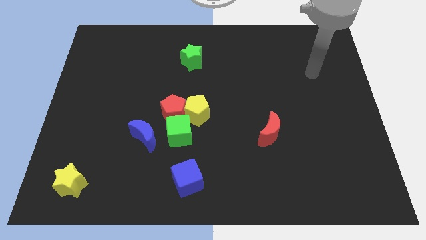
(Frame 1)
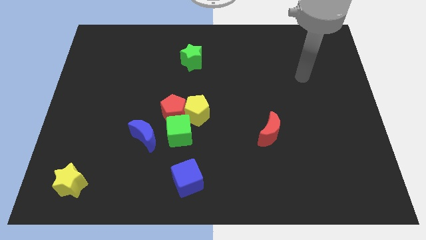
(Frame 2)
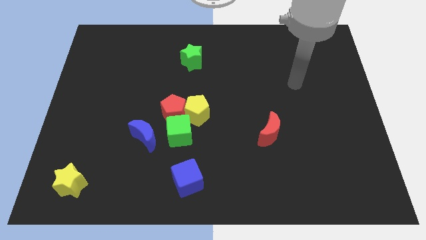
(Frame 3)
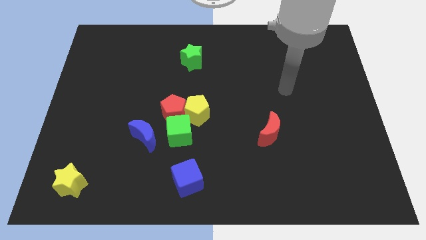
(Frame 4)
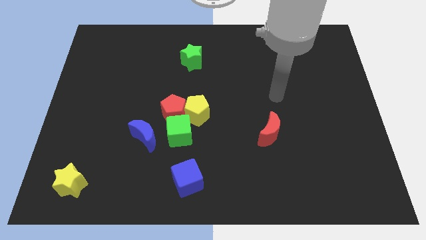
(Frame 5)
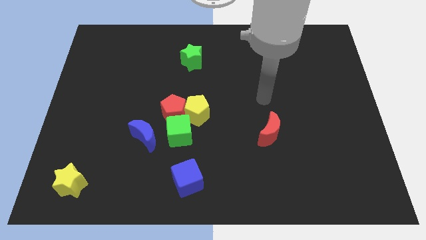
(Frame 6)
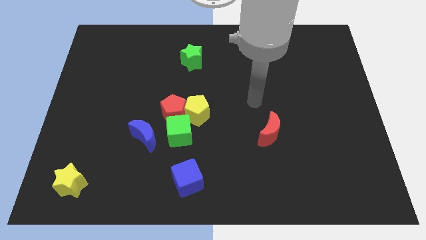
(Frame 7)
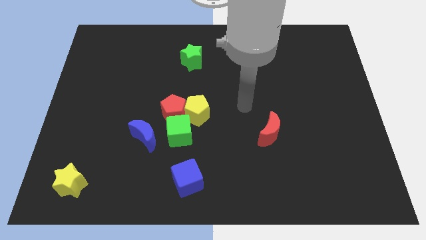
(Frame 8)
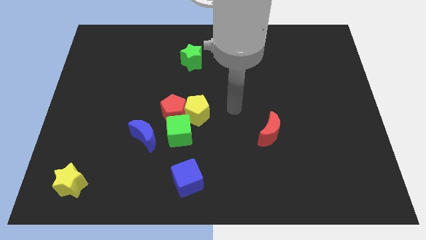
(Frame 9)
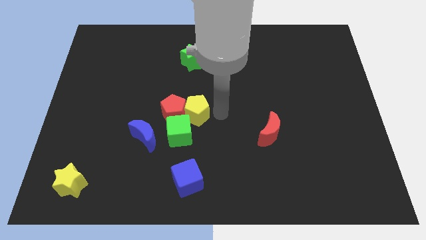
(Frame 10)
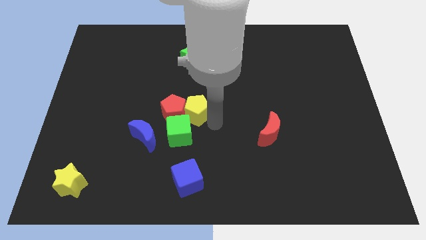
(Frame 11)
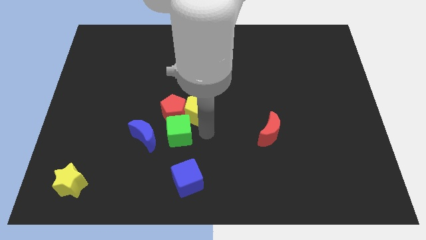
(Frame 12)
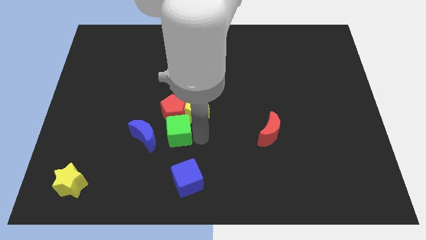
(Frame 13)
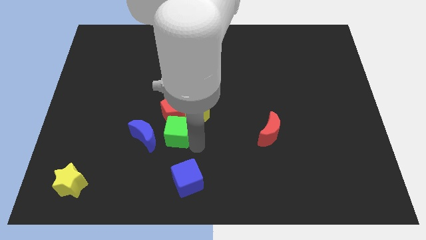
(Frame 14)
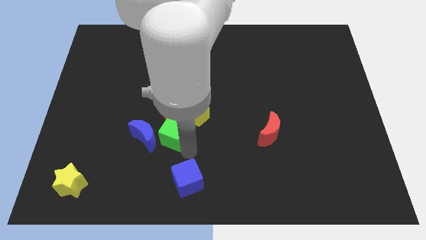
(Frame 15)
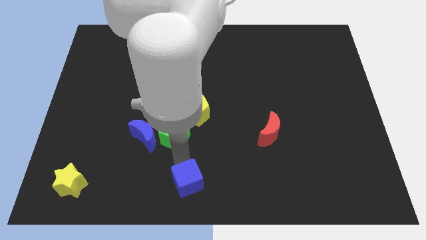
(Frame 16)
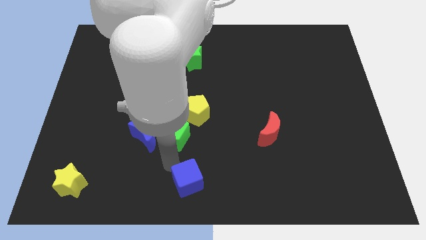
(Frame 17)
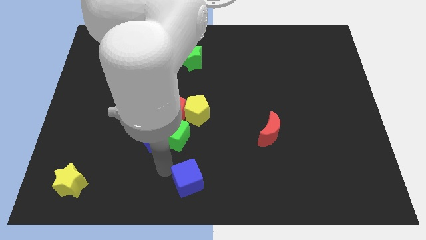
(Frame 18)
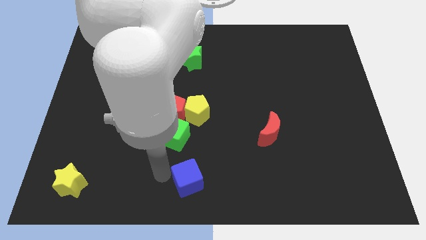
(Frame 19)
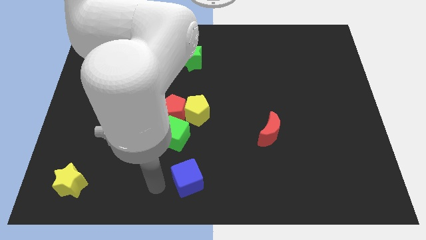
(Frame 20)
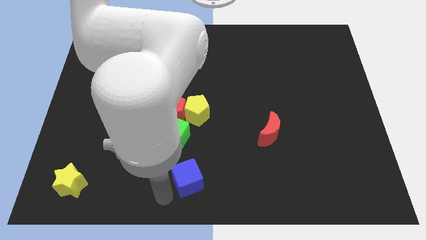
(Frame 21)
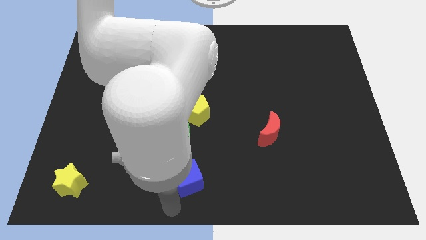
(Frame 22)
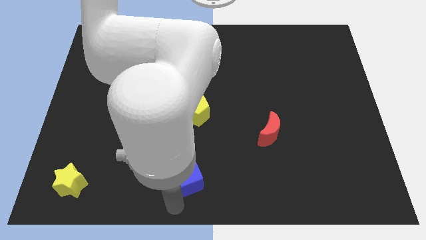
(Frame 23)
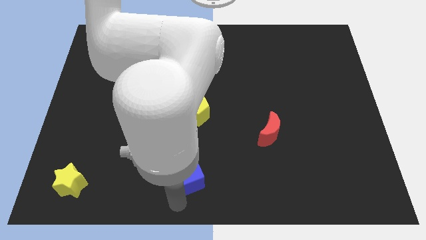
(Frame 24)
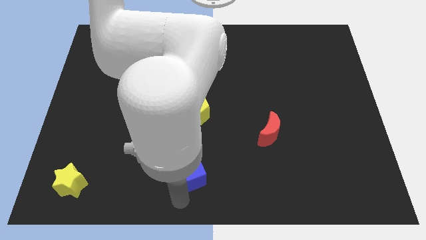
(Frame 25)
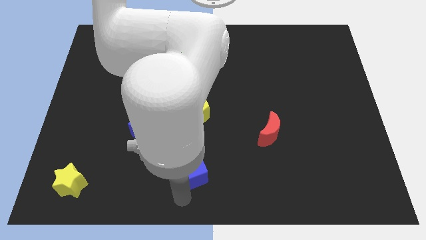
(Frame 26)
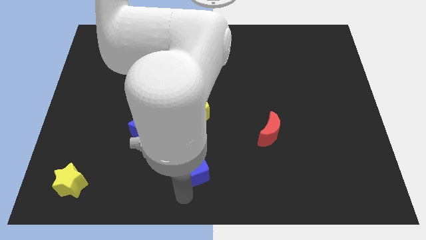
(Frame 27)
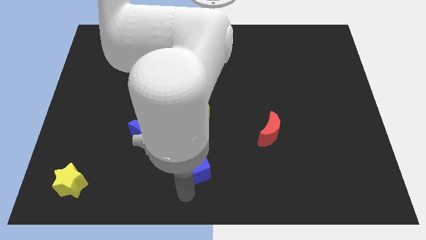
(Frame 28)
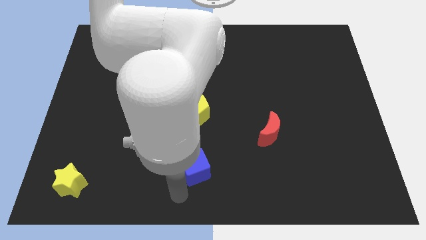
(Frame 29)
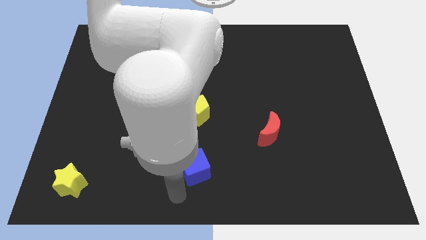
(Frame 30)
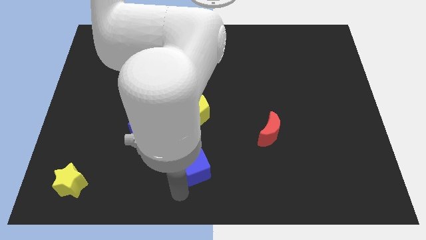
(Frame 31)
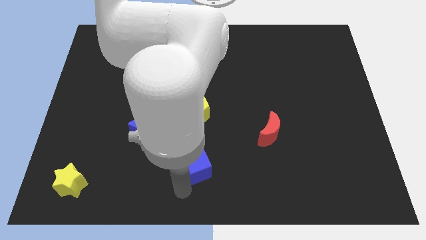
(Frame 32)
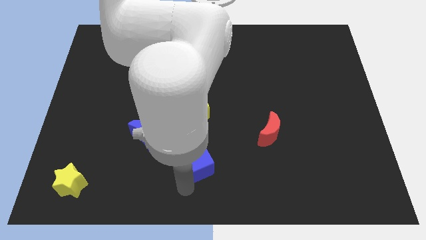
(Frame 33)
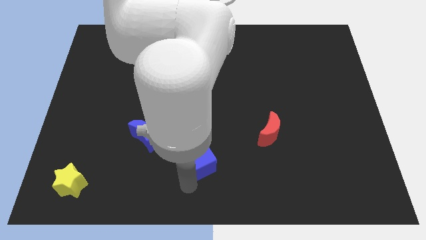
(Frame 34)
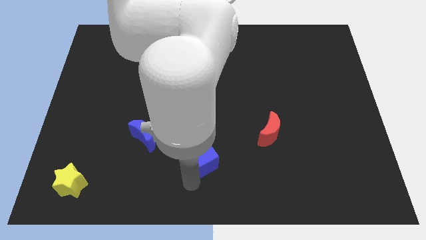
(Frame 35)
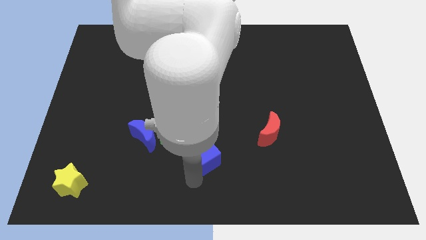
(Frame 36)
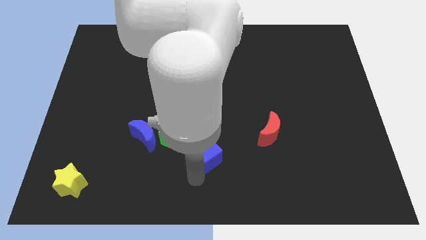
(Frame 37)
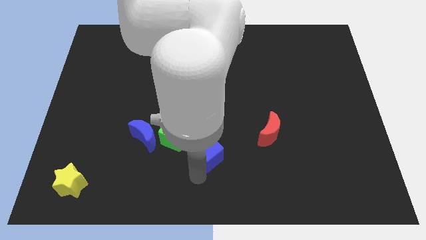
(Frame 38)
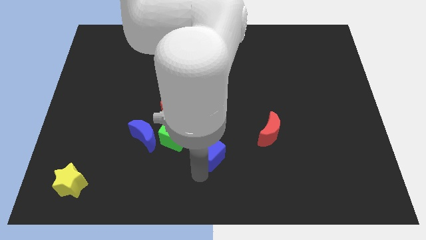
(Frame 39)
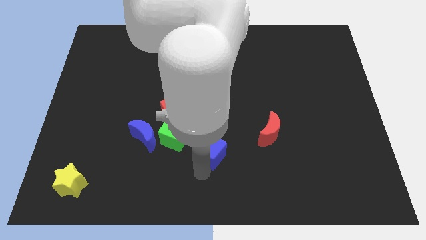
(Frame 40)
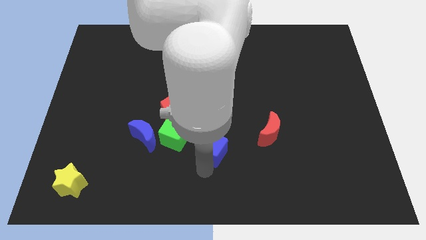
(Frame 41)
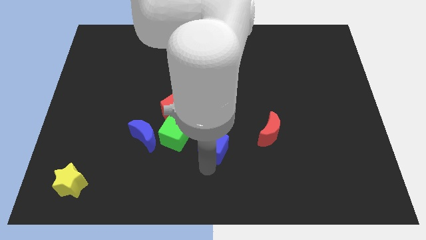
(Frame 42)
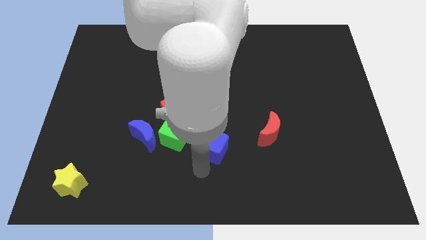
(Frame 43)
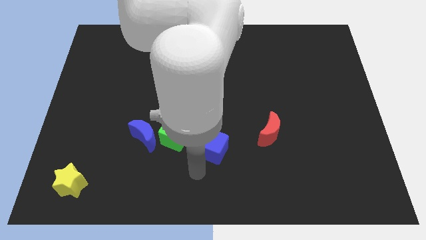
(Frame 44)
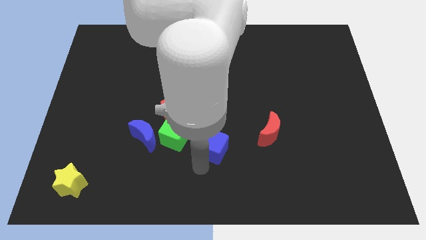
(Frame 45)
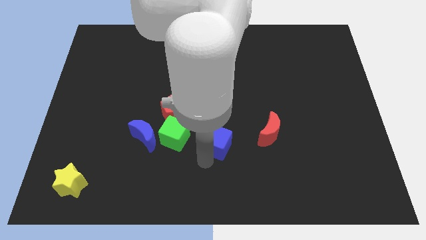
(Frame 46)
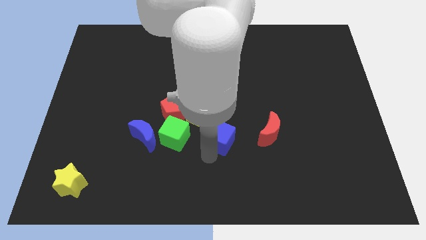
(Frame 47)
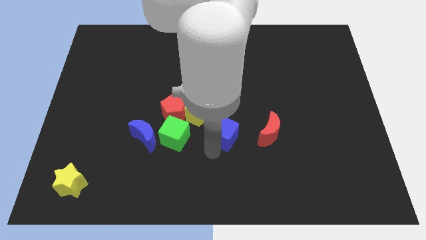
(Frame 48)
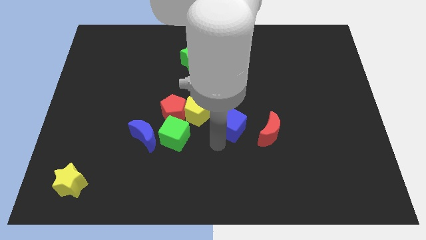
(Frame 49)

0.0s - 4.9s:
push the blue cube to the top left of the red moon

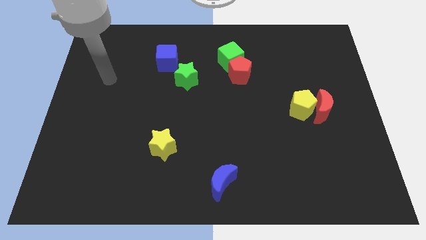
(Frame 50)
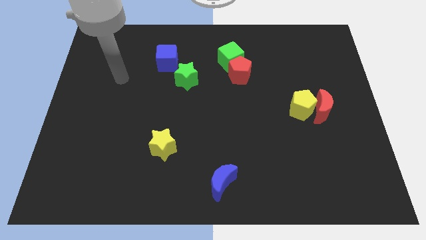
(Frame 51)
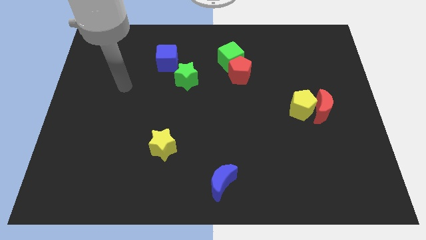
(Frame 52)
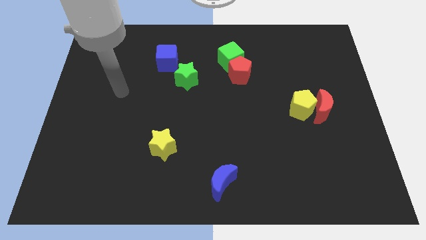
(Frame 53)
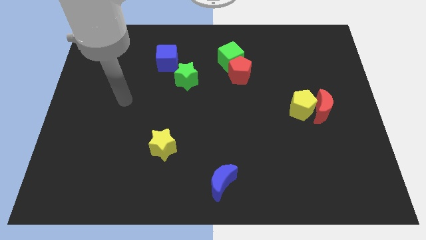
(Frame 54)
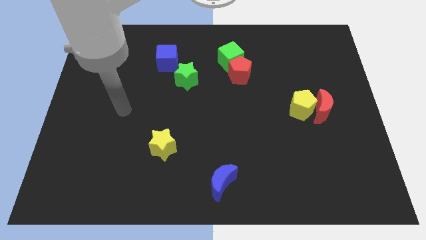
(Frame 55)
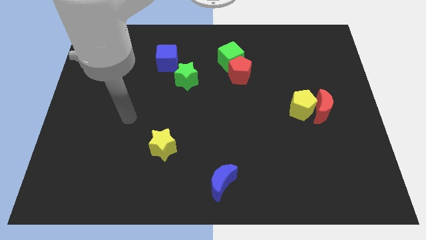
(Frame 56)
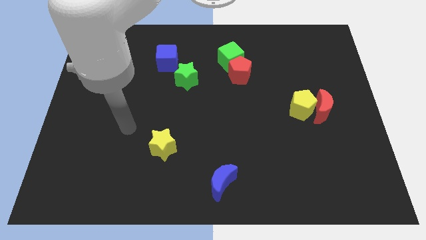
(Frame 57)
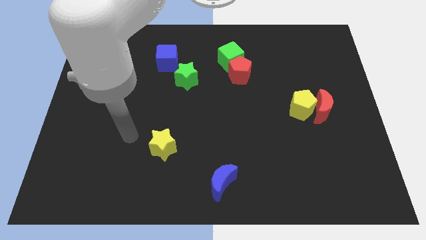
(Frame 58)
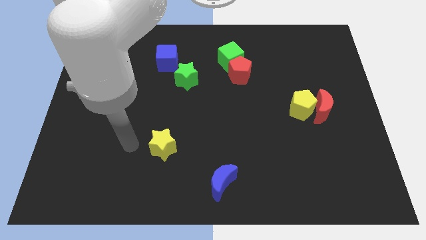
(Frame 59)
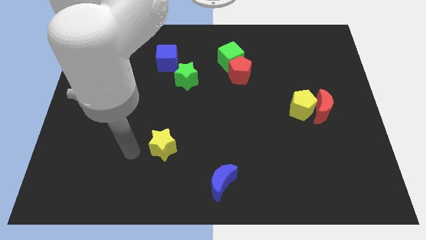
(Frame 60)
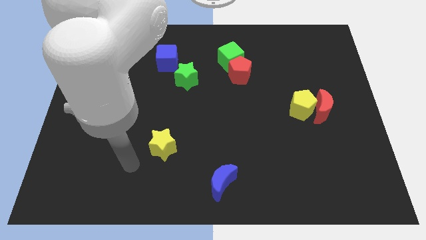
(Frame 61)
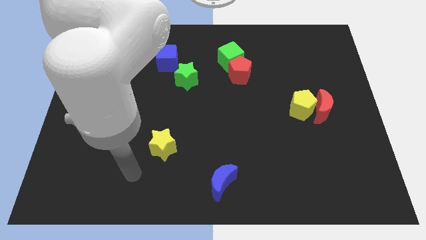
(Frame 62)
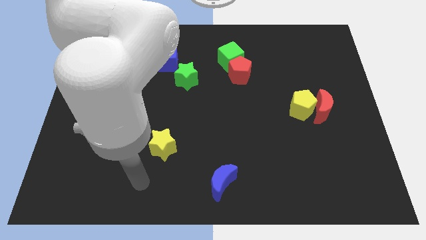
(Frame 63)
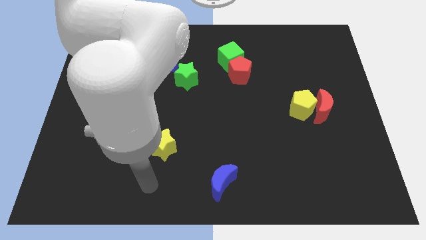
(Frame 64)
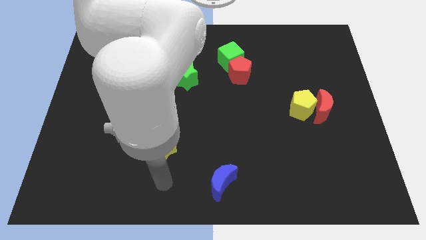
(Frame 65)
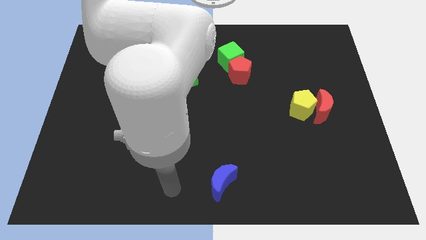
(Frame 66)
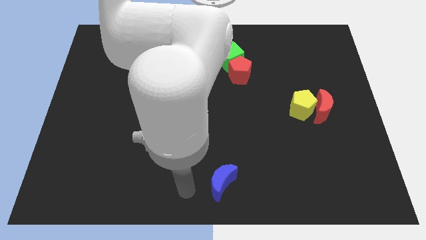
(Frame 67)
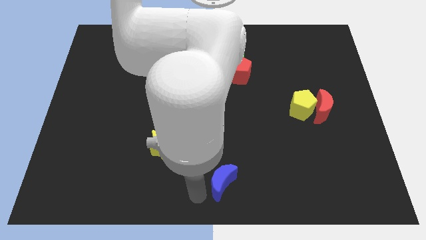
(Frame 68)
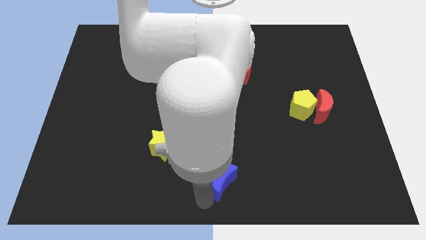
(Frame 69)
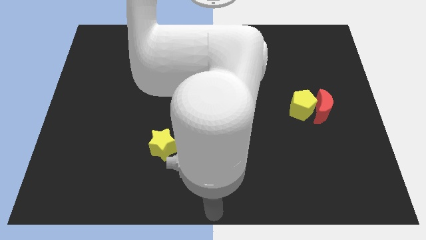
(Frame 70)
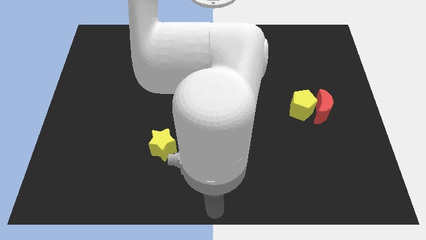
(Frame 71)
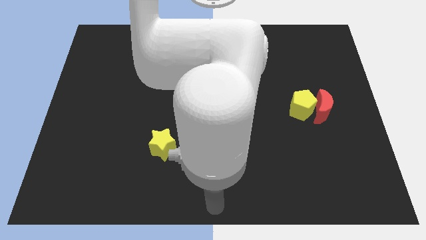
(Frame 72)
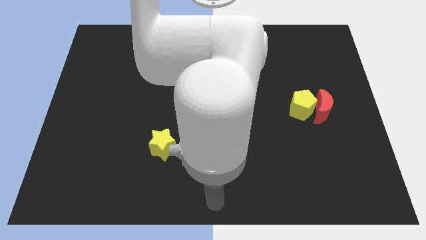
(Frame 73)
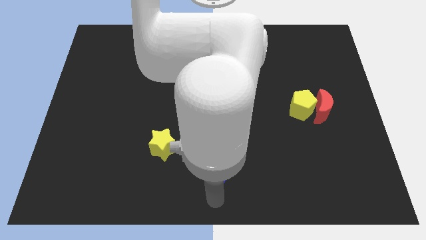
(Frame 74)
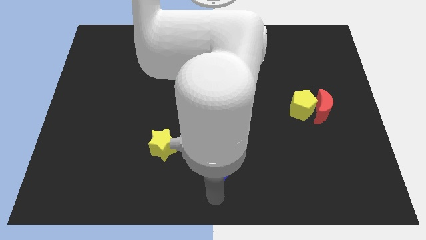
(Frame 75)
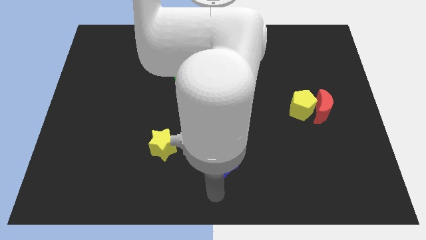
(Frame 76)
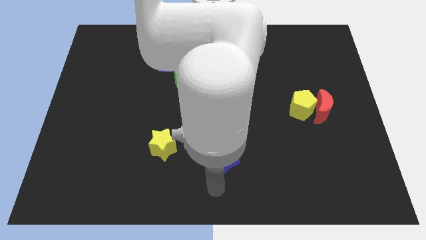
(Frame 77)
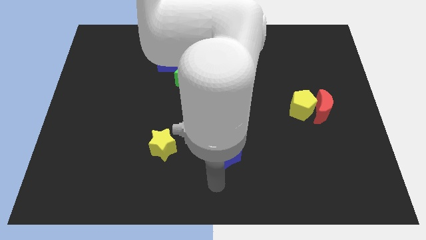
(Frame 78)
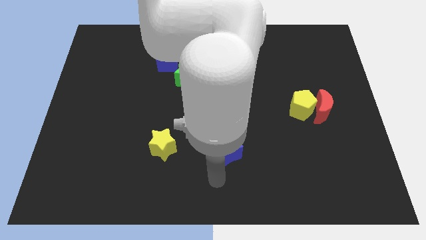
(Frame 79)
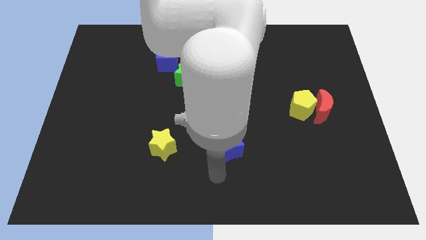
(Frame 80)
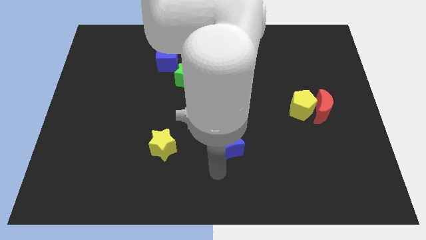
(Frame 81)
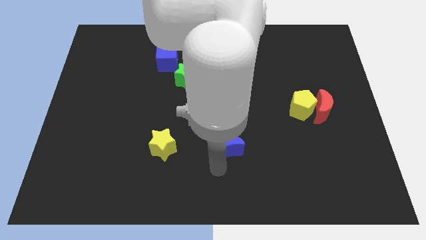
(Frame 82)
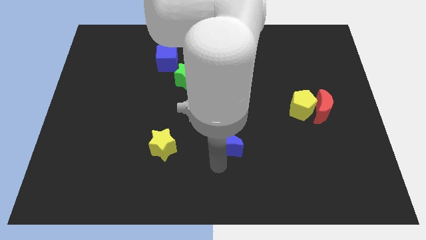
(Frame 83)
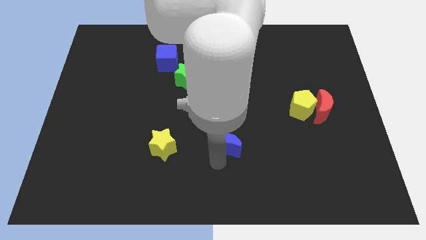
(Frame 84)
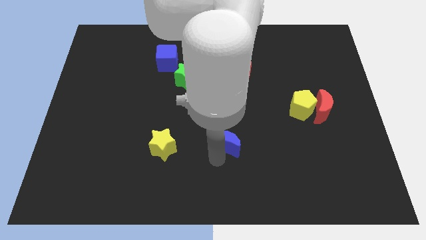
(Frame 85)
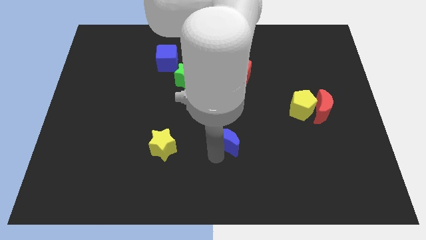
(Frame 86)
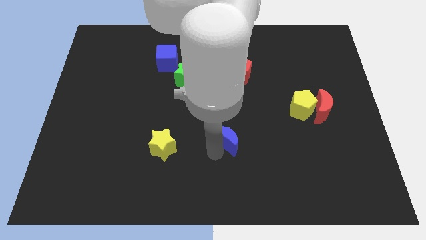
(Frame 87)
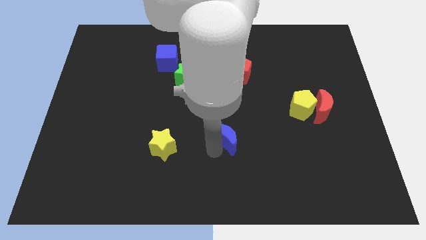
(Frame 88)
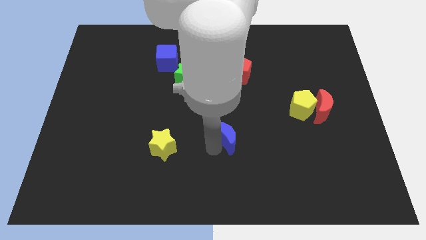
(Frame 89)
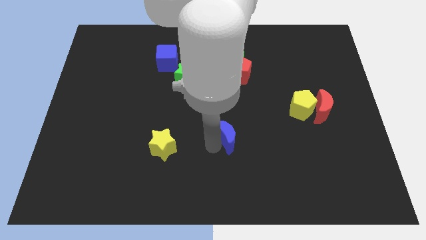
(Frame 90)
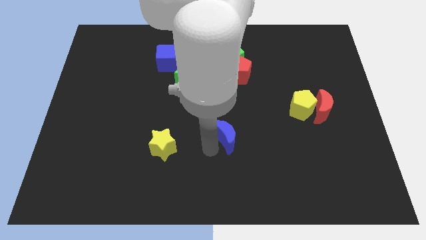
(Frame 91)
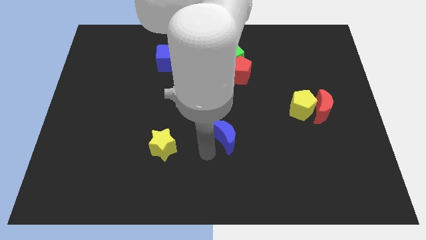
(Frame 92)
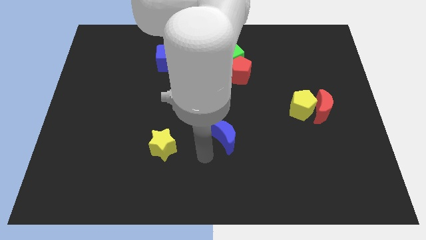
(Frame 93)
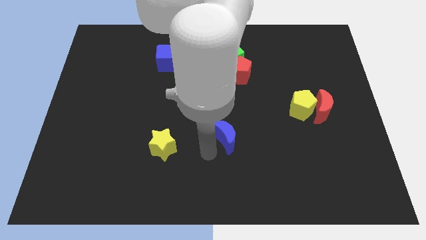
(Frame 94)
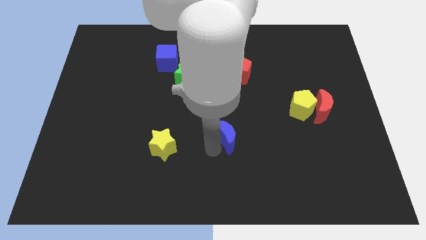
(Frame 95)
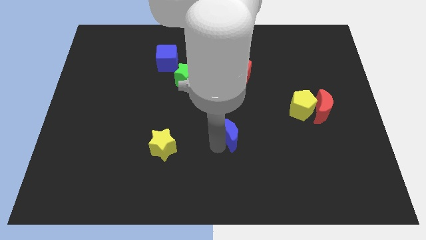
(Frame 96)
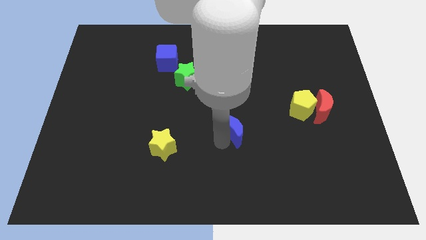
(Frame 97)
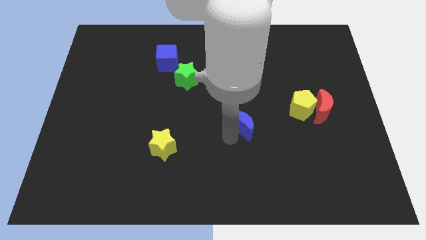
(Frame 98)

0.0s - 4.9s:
push the blue moon below the red pentagon
